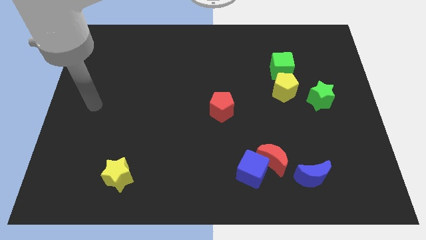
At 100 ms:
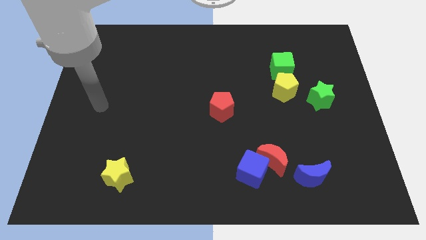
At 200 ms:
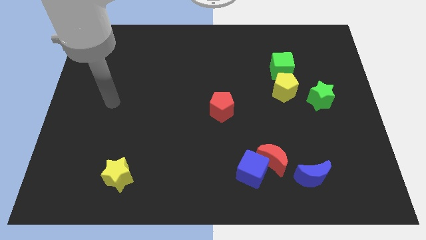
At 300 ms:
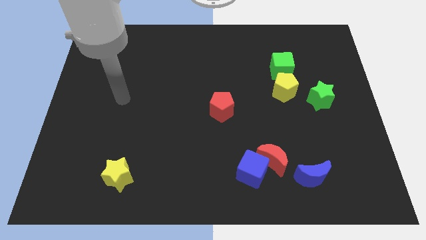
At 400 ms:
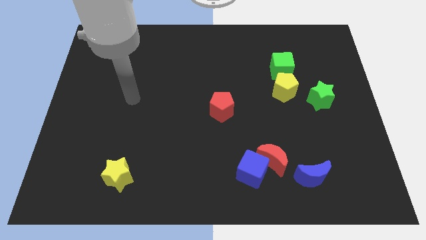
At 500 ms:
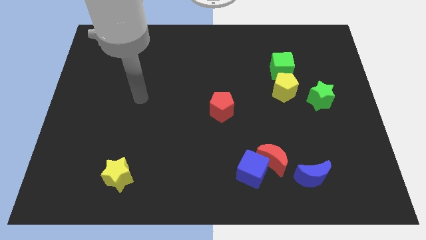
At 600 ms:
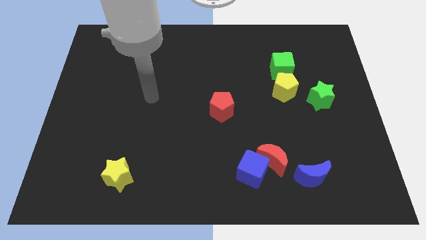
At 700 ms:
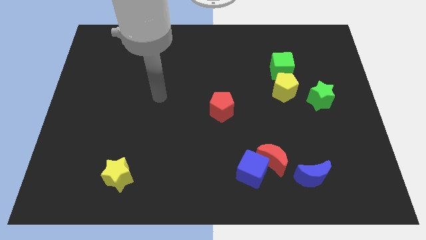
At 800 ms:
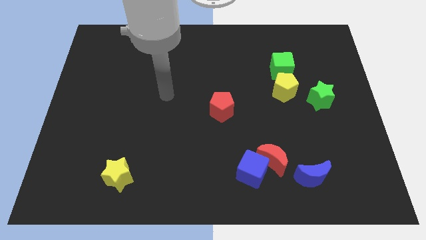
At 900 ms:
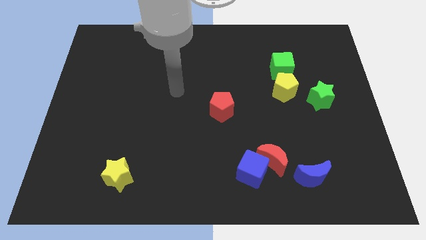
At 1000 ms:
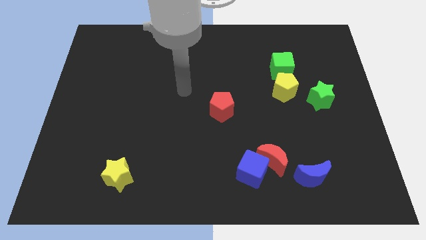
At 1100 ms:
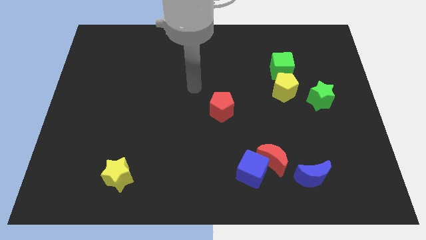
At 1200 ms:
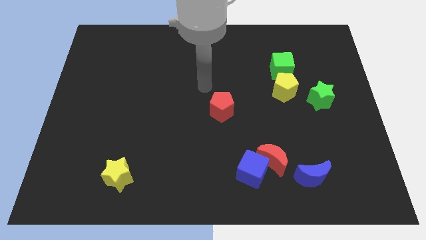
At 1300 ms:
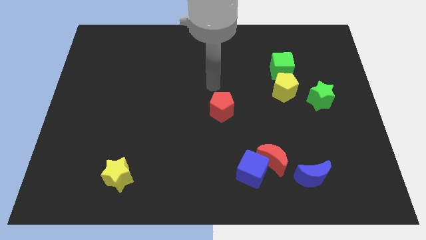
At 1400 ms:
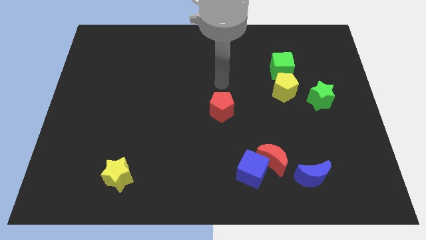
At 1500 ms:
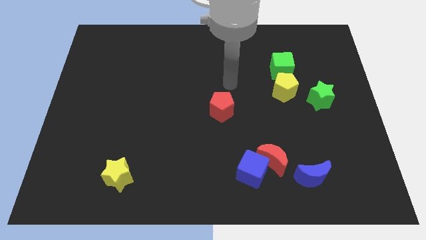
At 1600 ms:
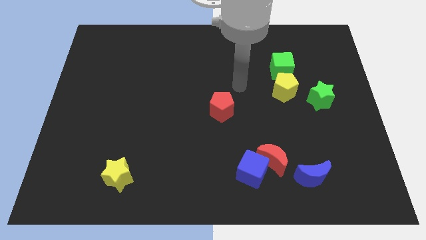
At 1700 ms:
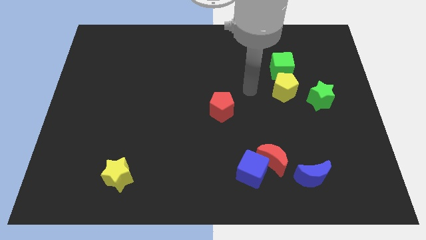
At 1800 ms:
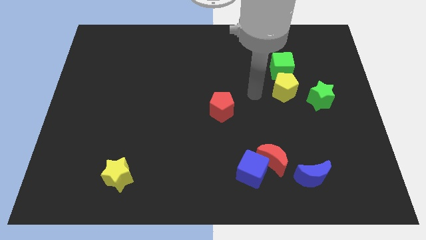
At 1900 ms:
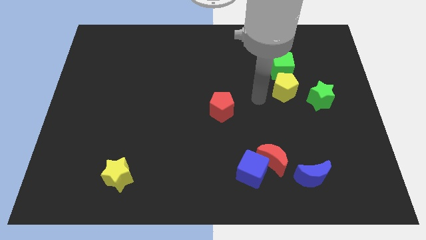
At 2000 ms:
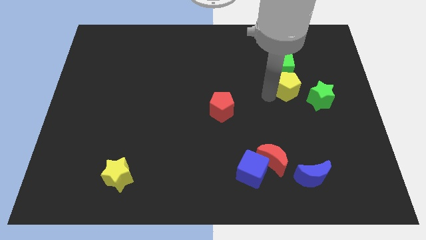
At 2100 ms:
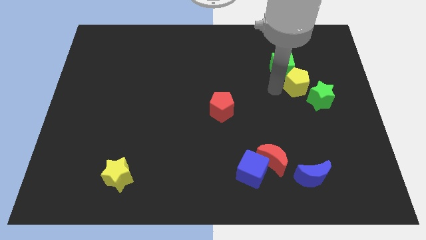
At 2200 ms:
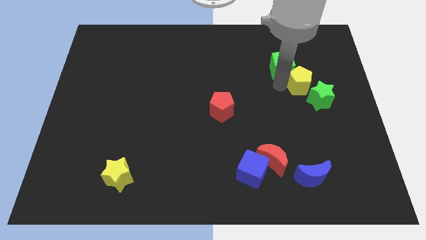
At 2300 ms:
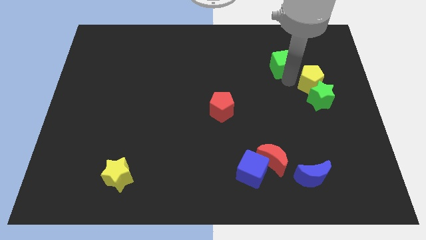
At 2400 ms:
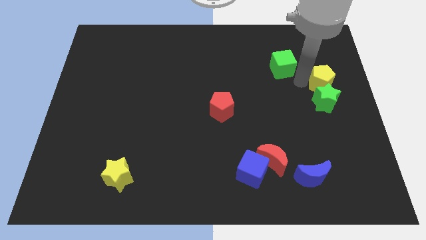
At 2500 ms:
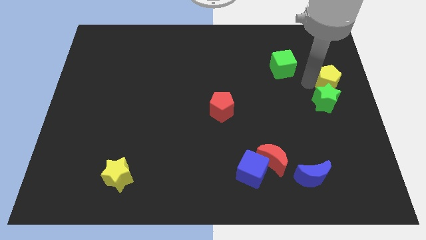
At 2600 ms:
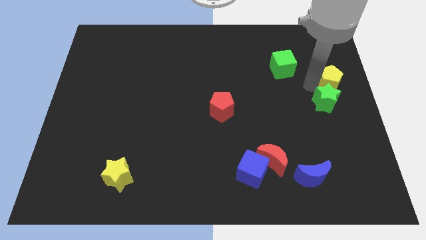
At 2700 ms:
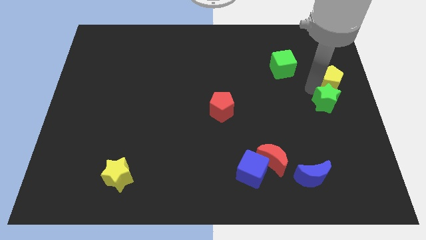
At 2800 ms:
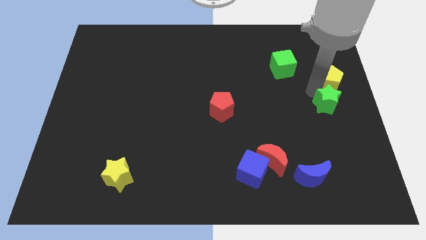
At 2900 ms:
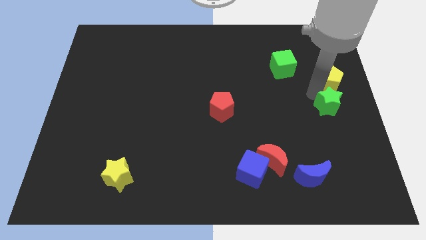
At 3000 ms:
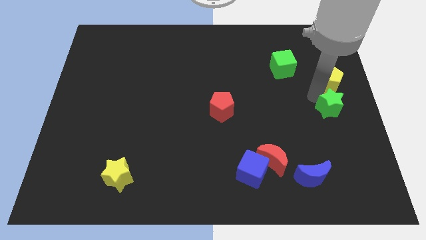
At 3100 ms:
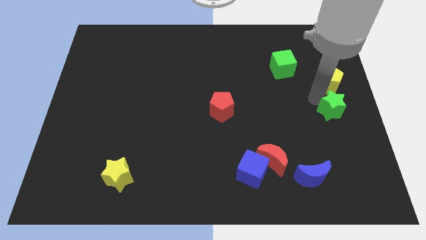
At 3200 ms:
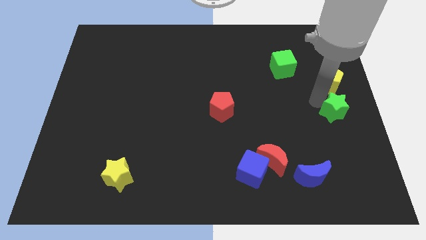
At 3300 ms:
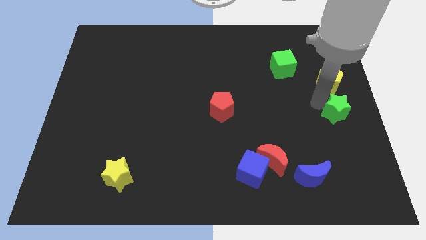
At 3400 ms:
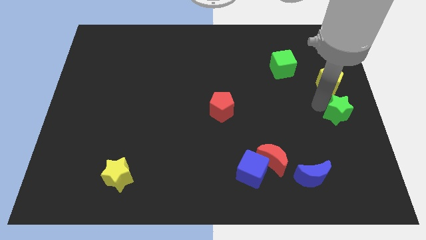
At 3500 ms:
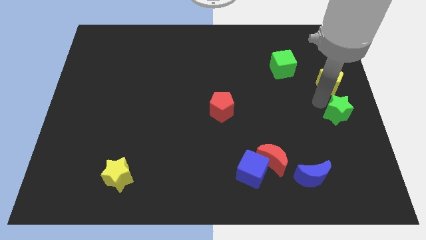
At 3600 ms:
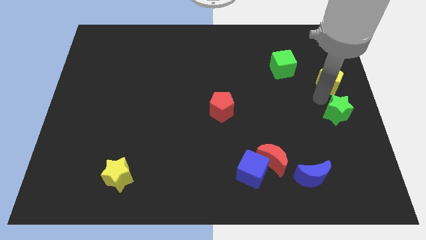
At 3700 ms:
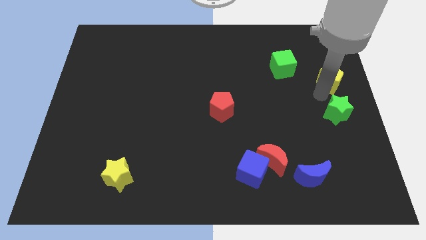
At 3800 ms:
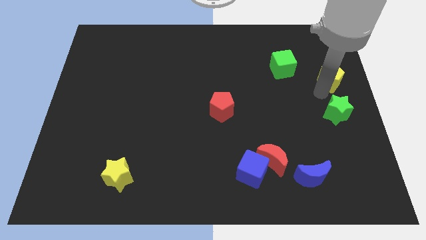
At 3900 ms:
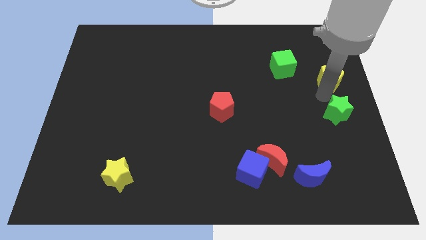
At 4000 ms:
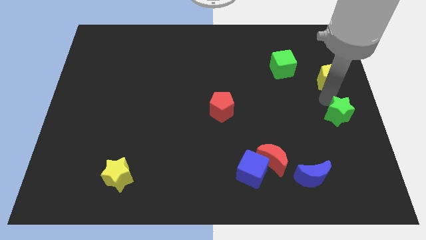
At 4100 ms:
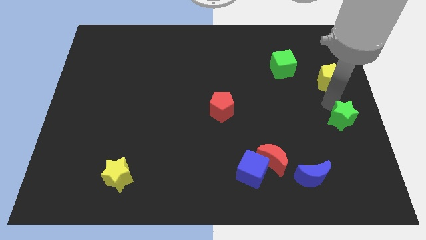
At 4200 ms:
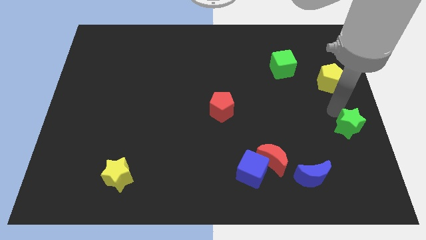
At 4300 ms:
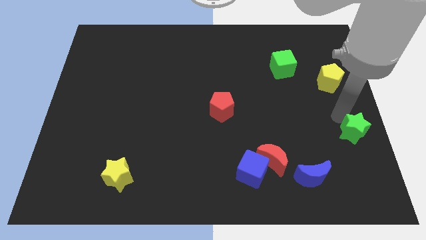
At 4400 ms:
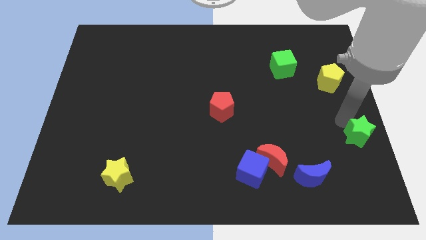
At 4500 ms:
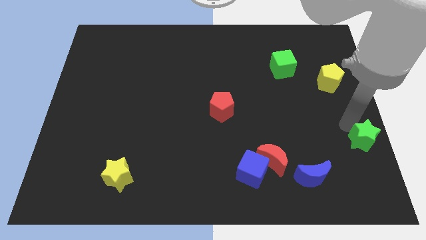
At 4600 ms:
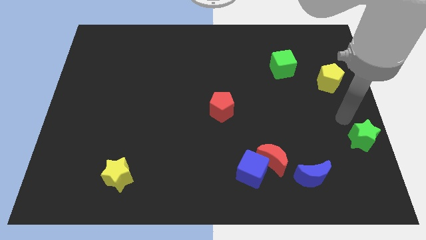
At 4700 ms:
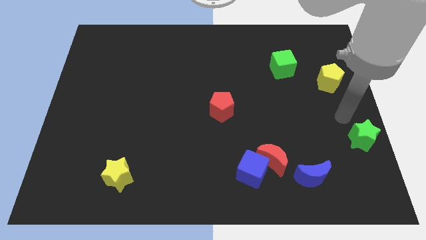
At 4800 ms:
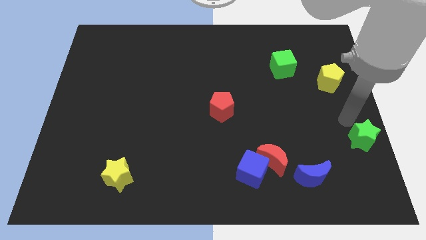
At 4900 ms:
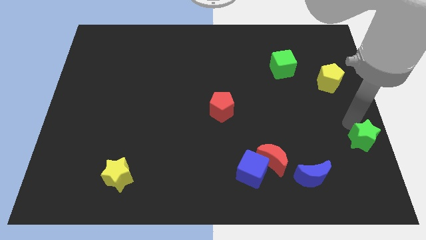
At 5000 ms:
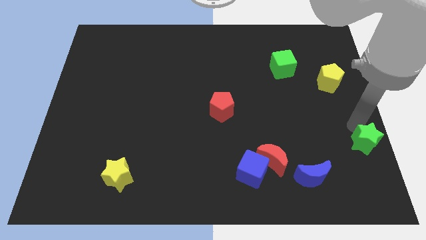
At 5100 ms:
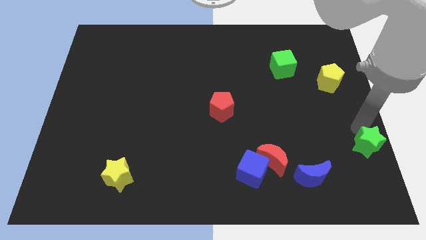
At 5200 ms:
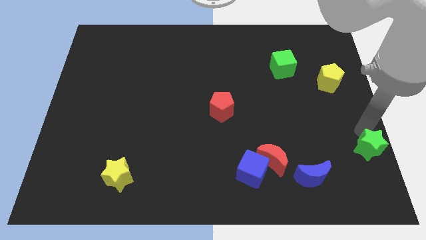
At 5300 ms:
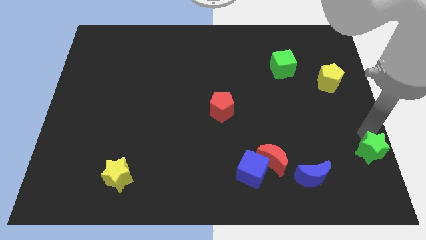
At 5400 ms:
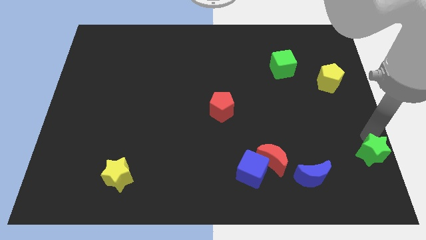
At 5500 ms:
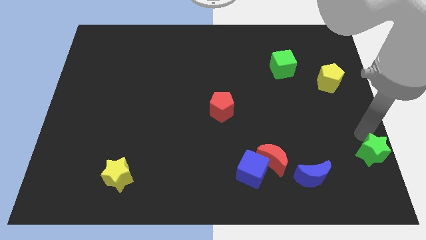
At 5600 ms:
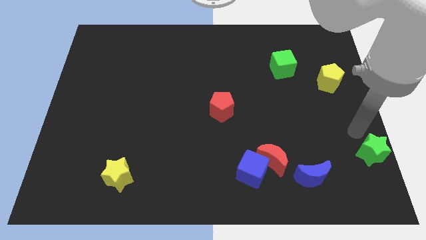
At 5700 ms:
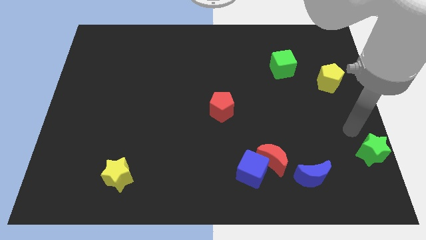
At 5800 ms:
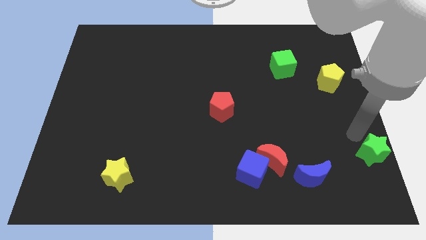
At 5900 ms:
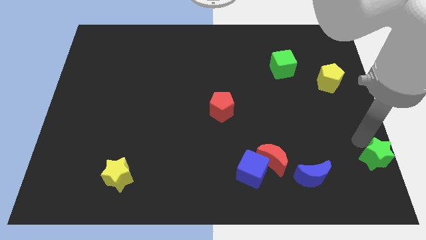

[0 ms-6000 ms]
slide the green star to the bottom right corner

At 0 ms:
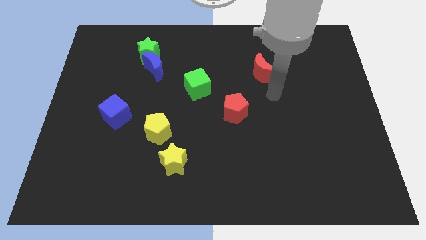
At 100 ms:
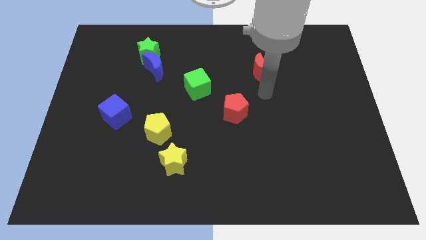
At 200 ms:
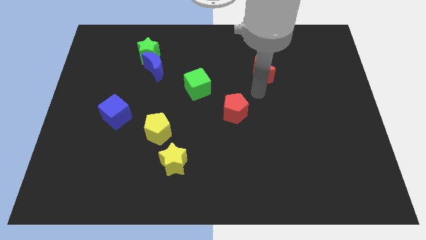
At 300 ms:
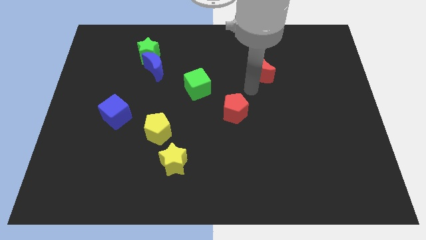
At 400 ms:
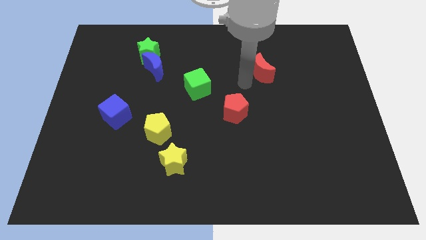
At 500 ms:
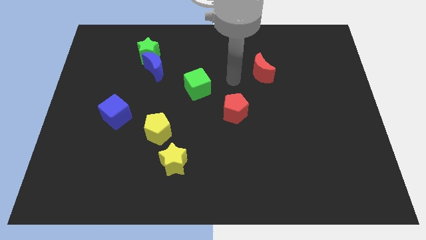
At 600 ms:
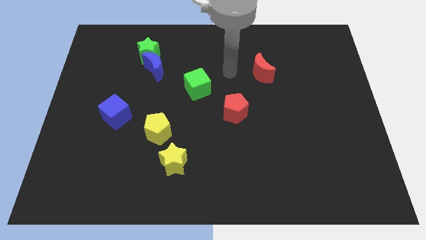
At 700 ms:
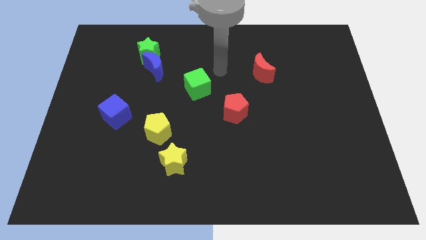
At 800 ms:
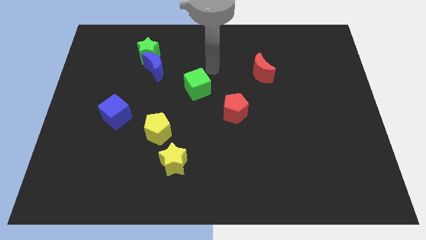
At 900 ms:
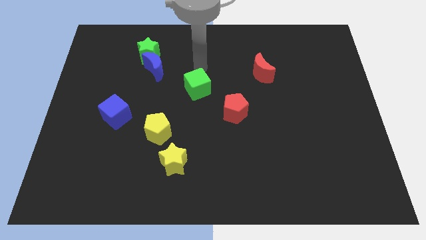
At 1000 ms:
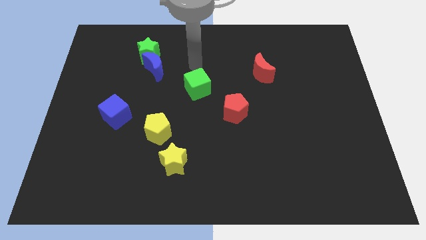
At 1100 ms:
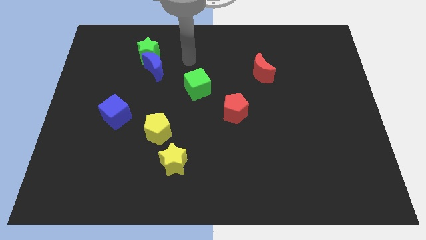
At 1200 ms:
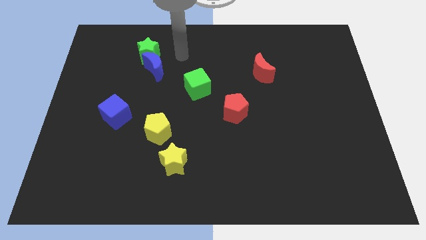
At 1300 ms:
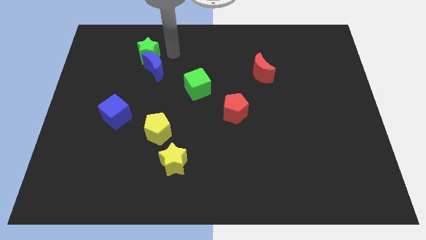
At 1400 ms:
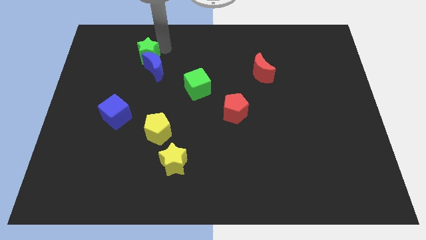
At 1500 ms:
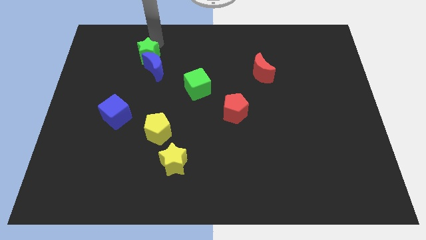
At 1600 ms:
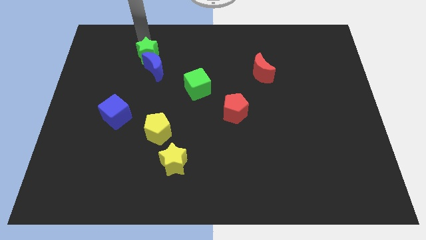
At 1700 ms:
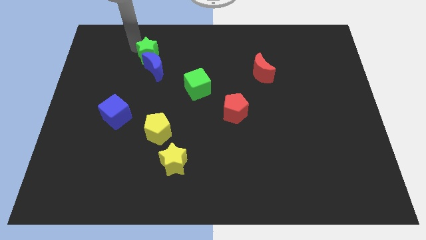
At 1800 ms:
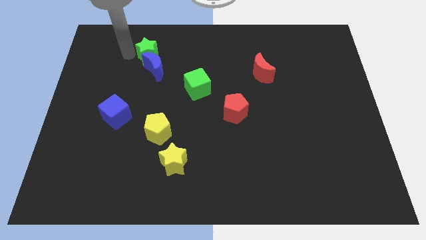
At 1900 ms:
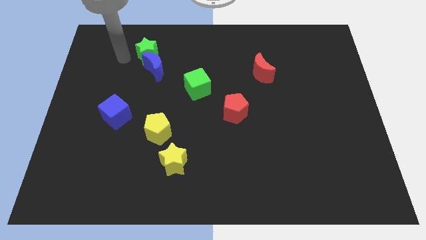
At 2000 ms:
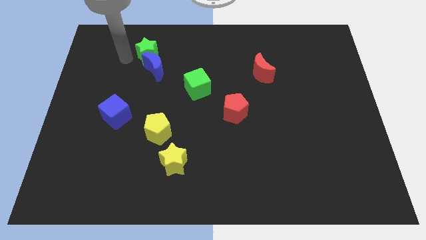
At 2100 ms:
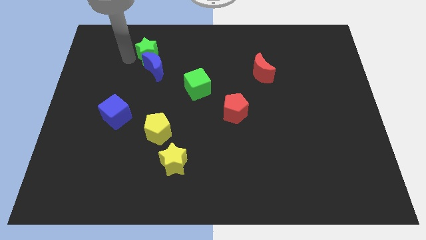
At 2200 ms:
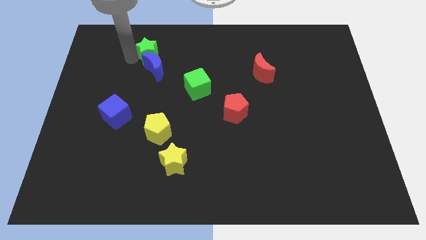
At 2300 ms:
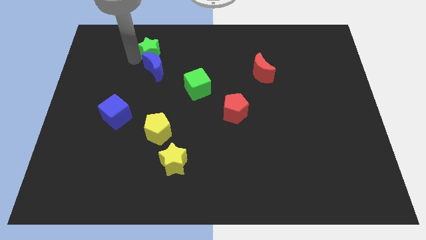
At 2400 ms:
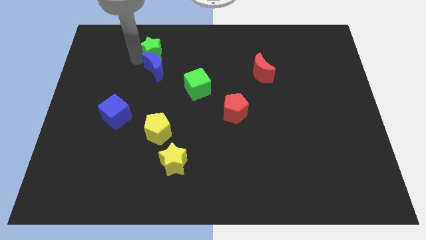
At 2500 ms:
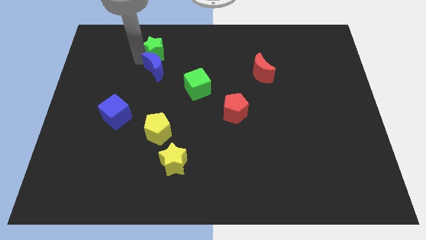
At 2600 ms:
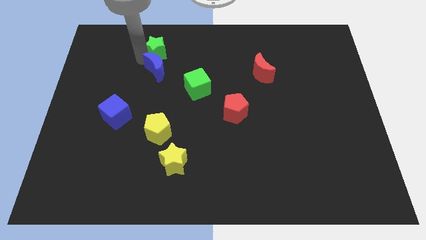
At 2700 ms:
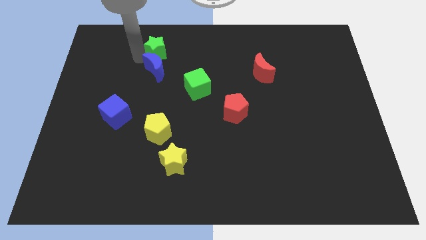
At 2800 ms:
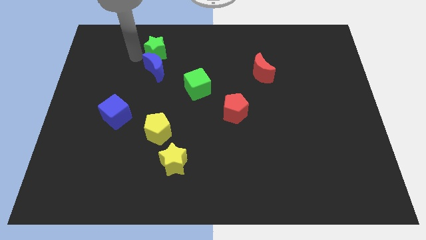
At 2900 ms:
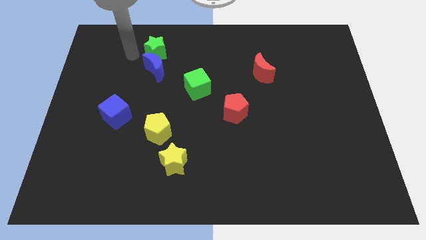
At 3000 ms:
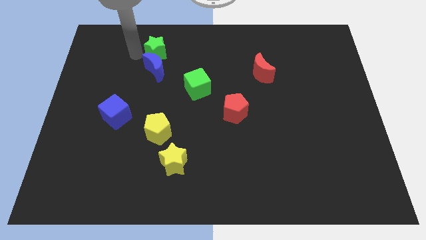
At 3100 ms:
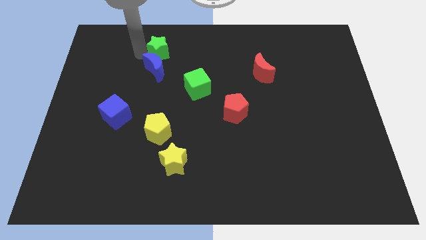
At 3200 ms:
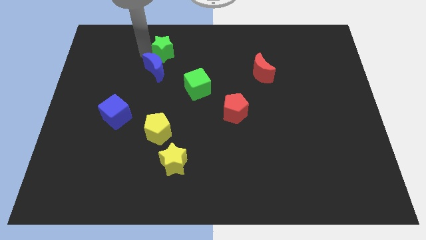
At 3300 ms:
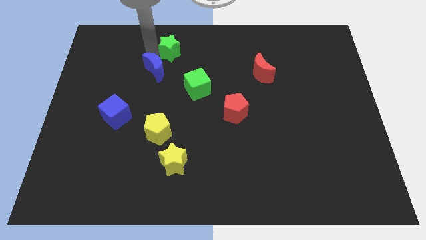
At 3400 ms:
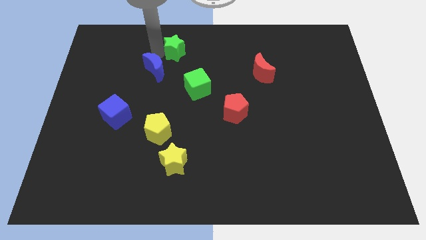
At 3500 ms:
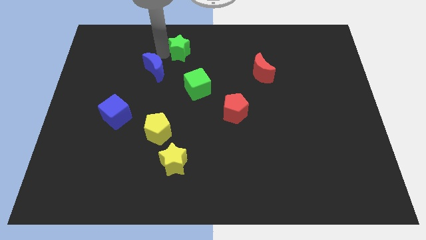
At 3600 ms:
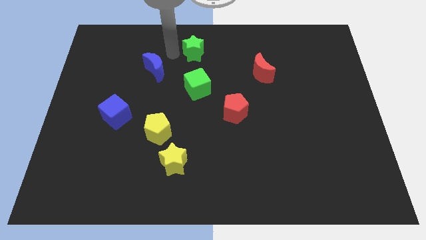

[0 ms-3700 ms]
put the green star to the towards your base
